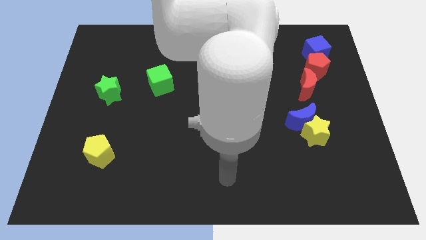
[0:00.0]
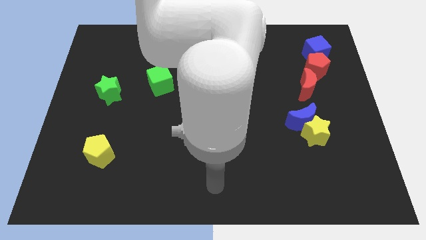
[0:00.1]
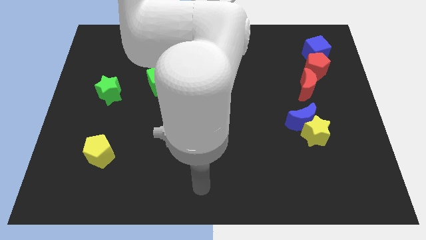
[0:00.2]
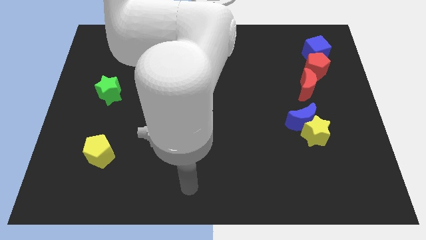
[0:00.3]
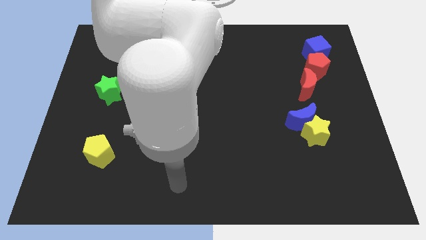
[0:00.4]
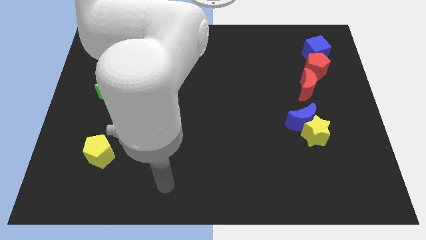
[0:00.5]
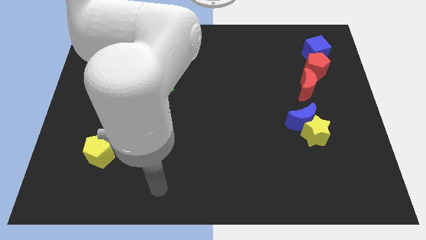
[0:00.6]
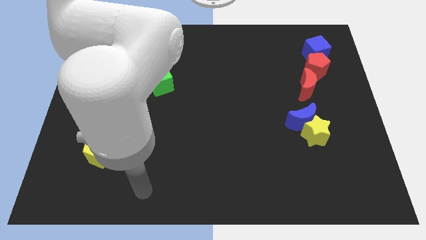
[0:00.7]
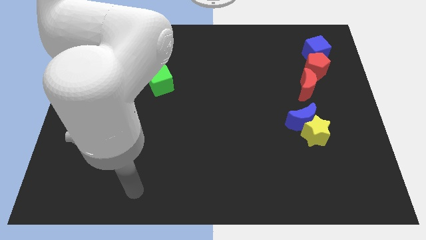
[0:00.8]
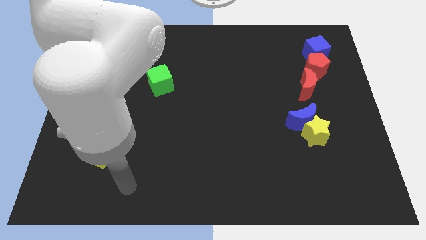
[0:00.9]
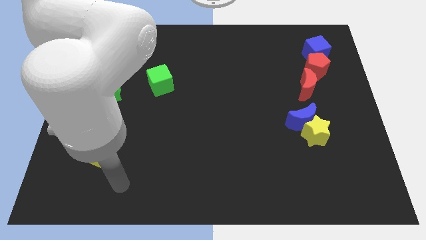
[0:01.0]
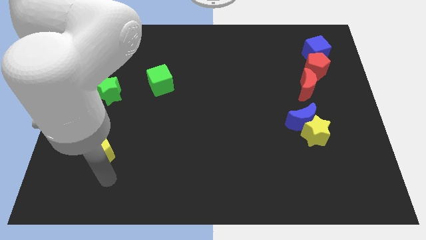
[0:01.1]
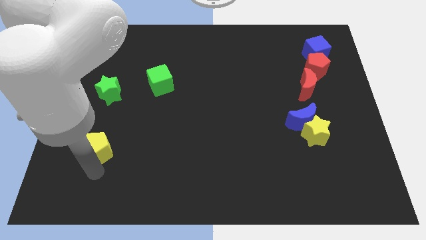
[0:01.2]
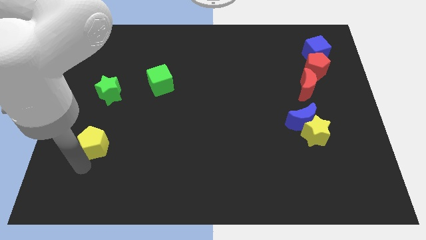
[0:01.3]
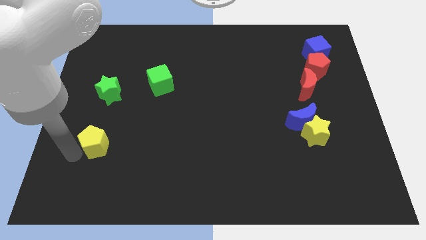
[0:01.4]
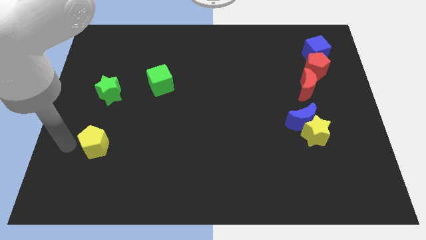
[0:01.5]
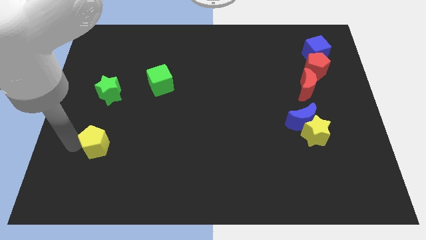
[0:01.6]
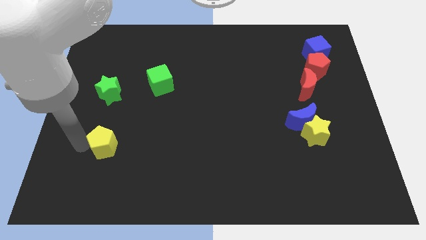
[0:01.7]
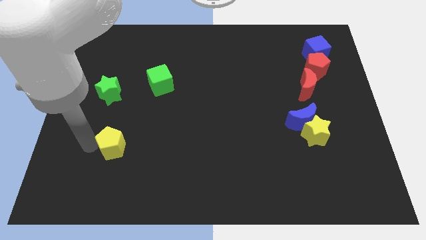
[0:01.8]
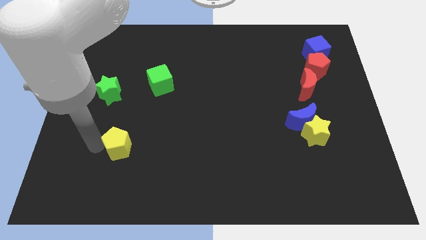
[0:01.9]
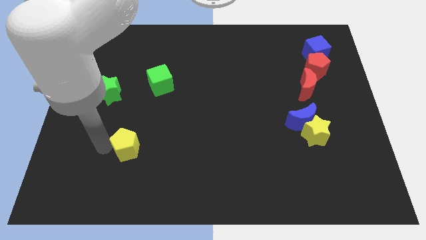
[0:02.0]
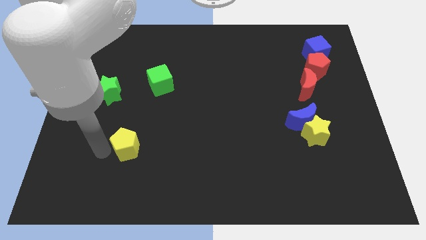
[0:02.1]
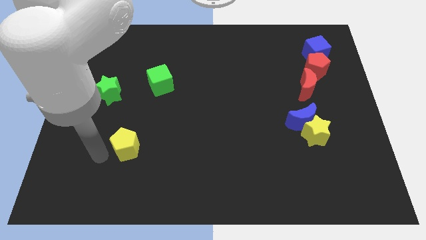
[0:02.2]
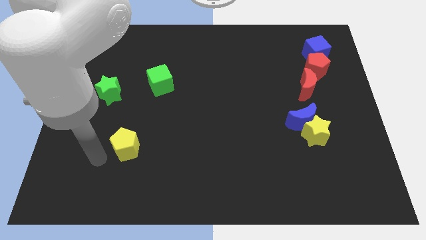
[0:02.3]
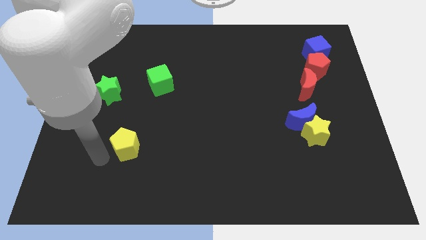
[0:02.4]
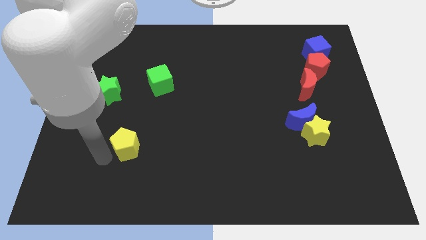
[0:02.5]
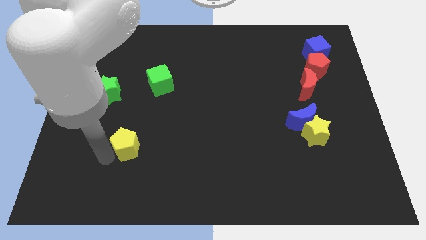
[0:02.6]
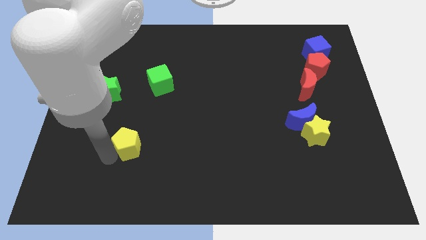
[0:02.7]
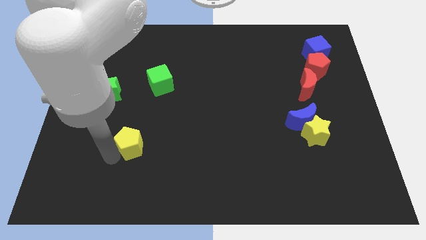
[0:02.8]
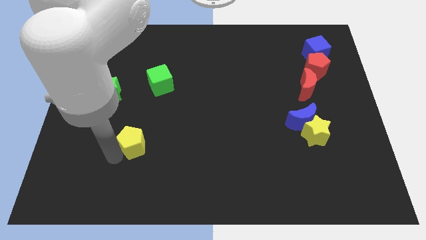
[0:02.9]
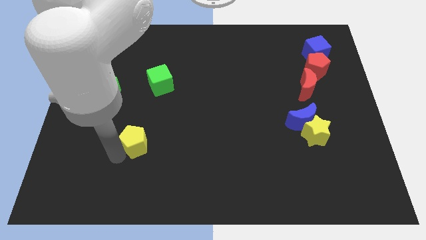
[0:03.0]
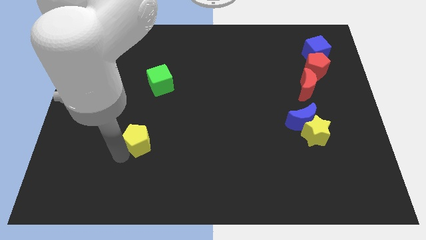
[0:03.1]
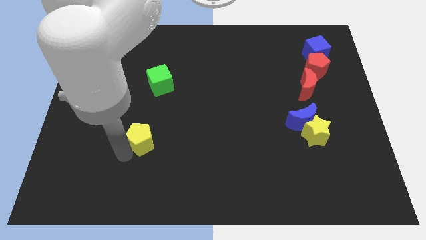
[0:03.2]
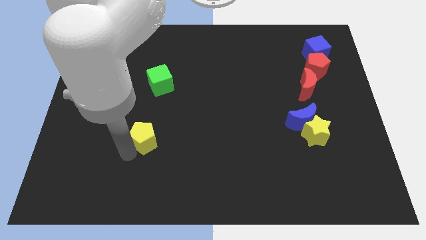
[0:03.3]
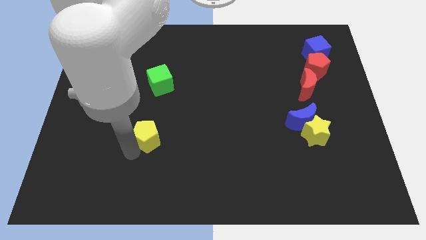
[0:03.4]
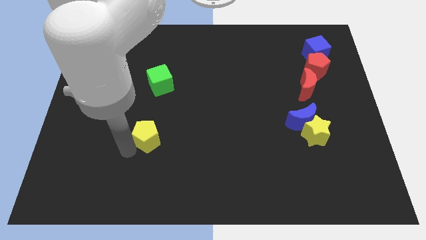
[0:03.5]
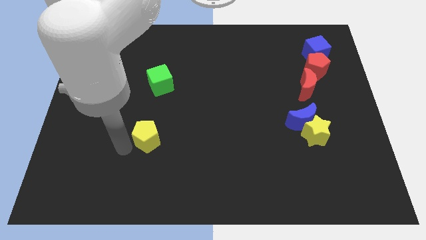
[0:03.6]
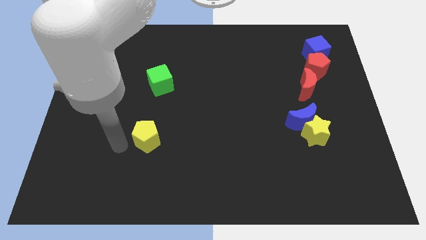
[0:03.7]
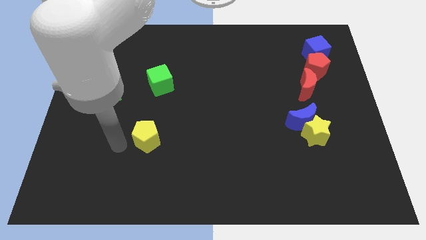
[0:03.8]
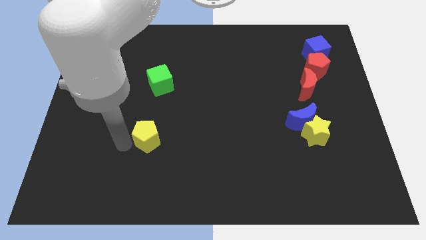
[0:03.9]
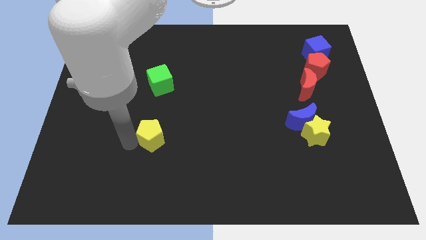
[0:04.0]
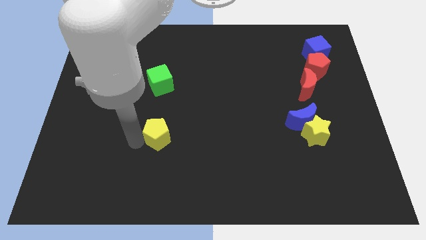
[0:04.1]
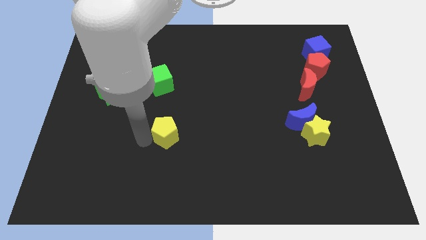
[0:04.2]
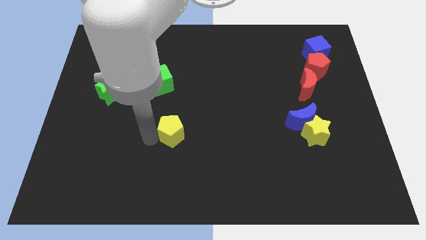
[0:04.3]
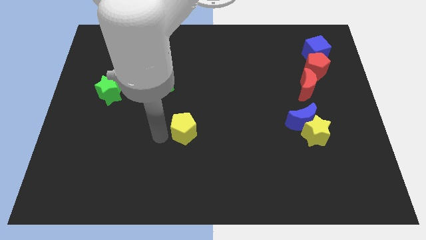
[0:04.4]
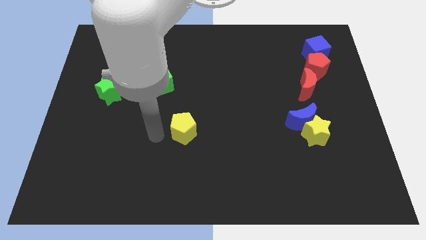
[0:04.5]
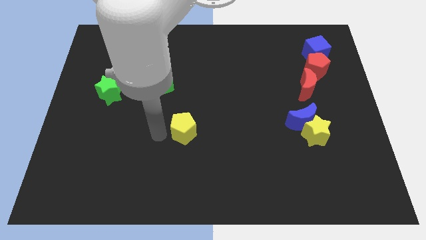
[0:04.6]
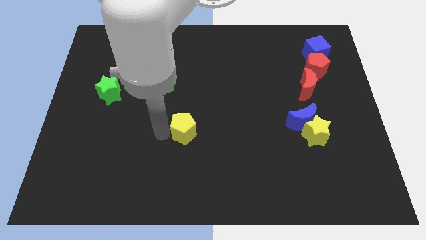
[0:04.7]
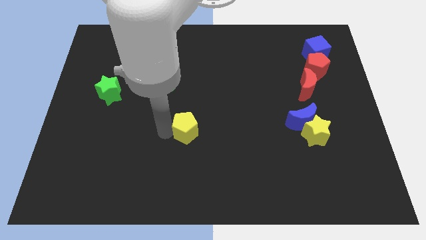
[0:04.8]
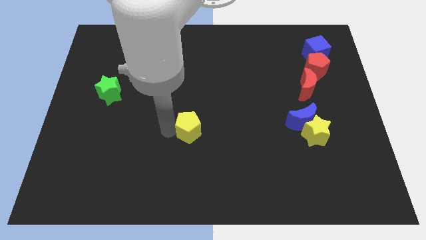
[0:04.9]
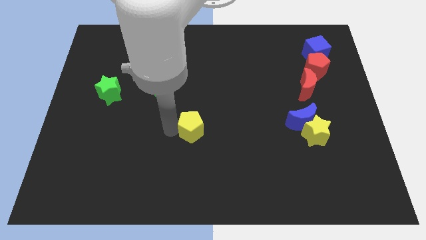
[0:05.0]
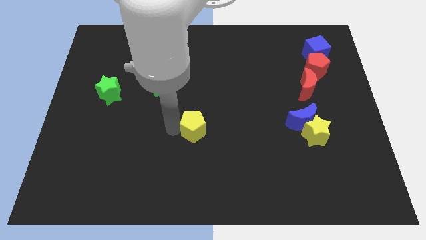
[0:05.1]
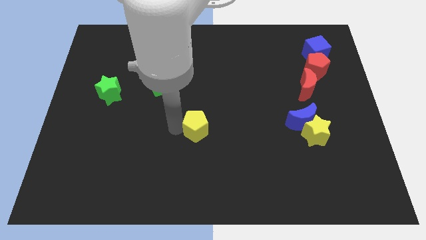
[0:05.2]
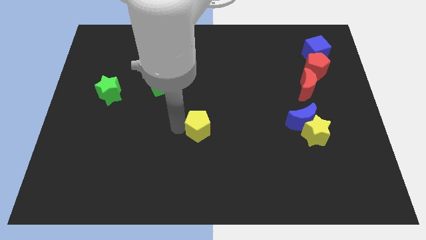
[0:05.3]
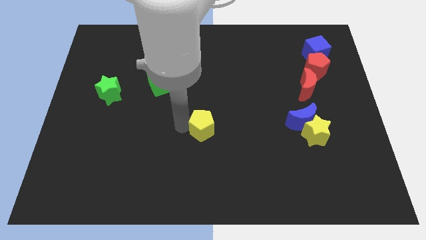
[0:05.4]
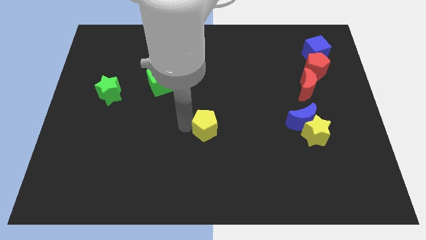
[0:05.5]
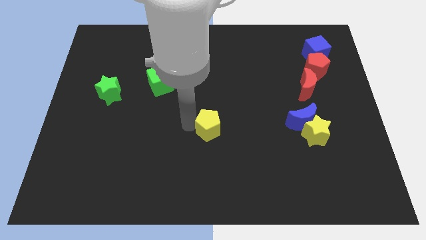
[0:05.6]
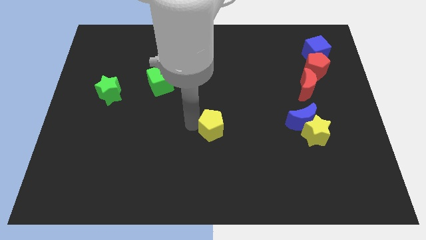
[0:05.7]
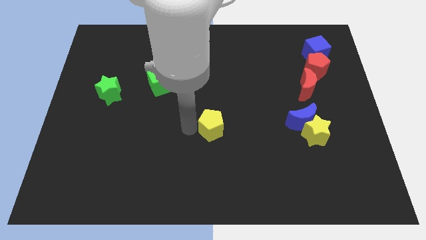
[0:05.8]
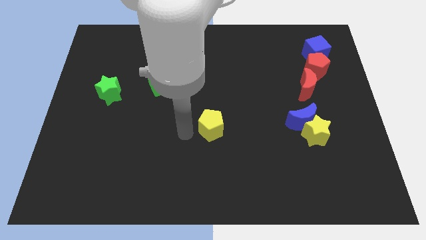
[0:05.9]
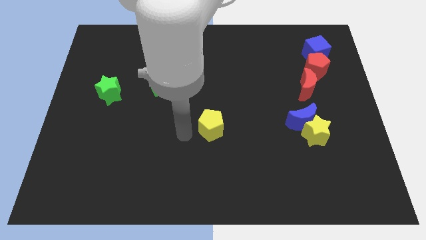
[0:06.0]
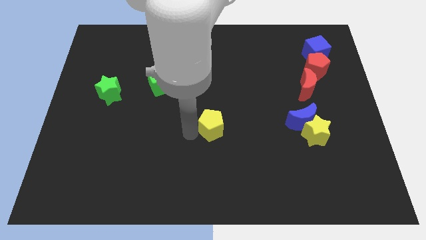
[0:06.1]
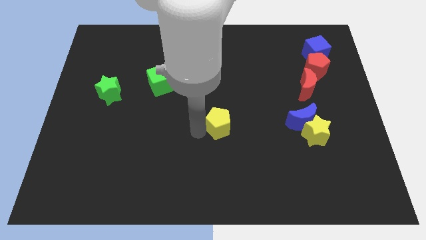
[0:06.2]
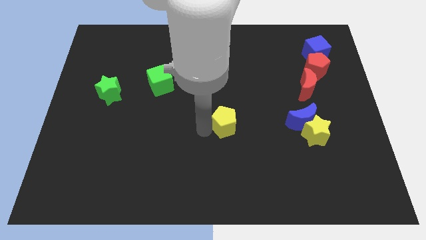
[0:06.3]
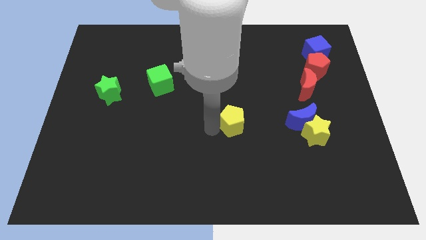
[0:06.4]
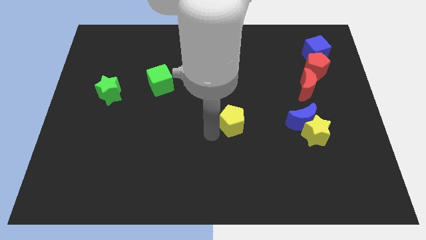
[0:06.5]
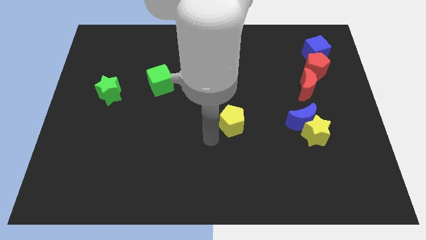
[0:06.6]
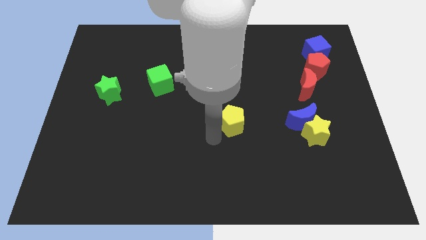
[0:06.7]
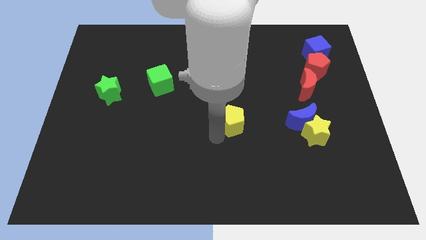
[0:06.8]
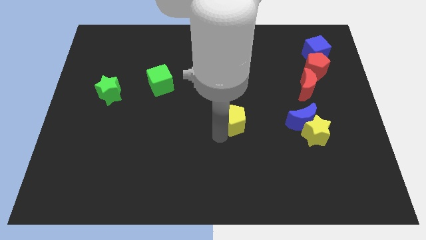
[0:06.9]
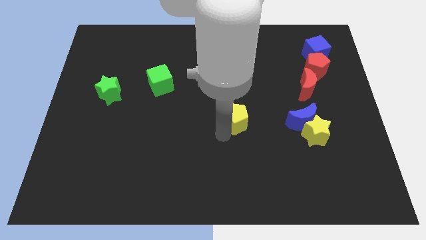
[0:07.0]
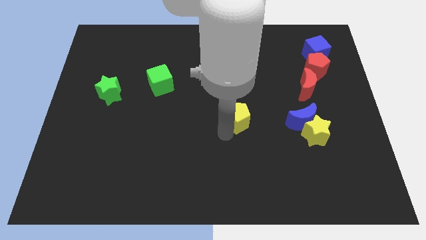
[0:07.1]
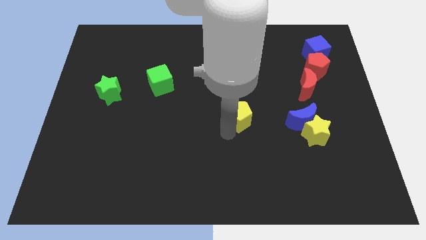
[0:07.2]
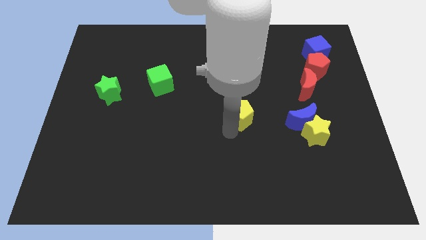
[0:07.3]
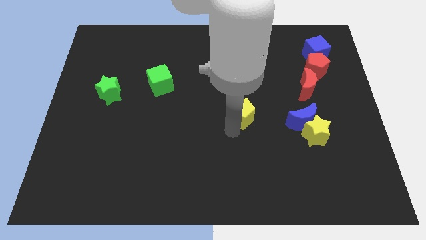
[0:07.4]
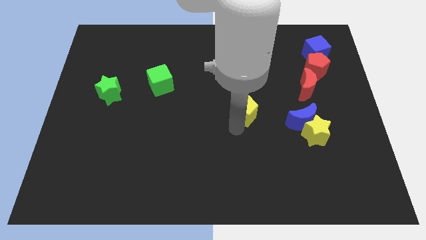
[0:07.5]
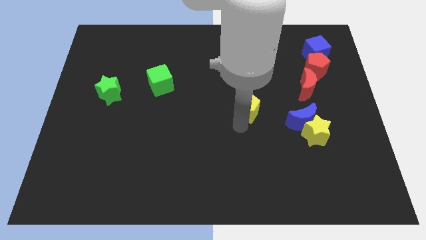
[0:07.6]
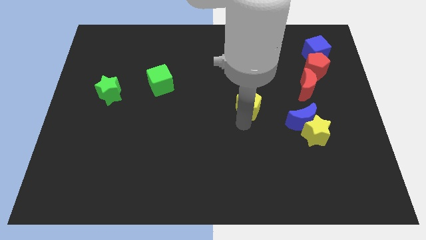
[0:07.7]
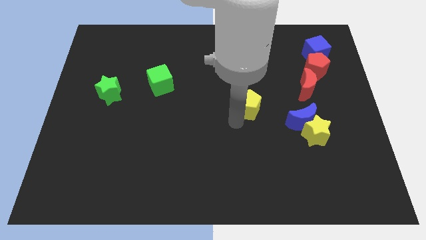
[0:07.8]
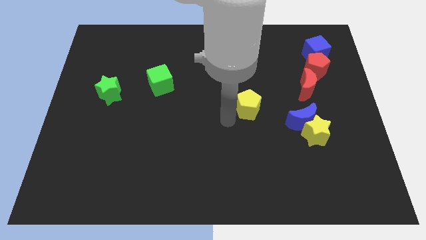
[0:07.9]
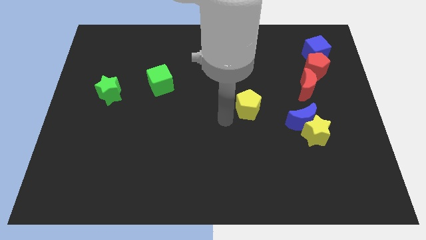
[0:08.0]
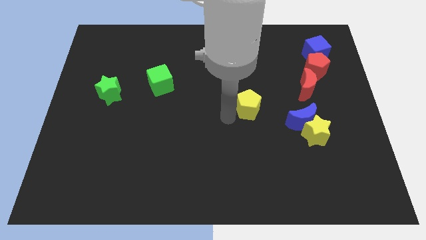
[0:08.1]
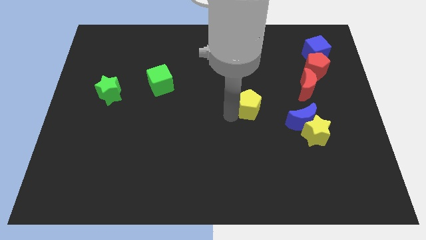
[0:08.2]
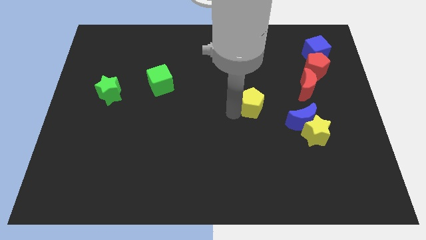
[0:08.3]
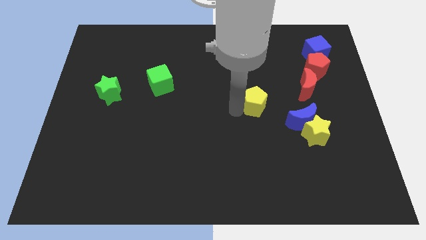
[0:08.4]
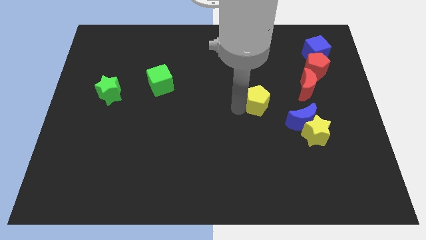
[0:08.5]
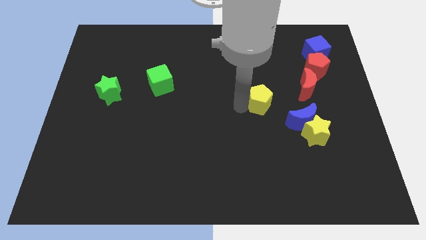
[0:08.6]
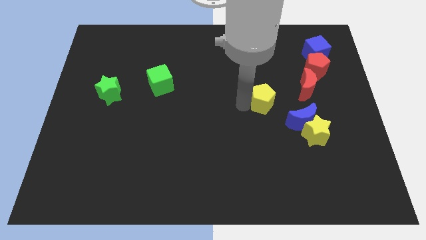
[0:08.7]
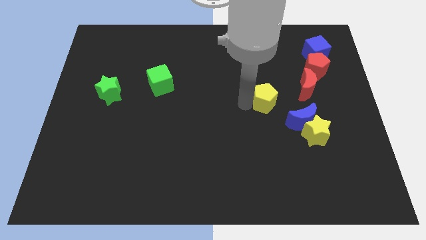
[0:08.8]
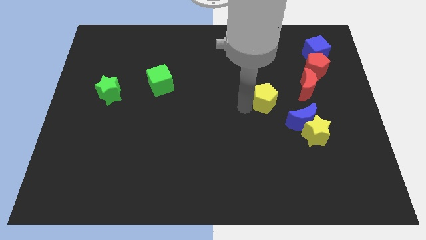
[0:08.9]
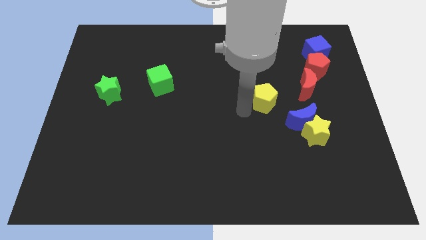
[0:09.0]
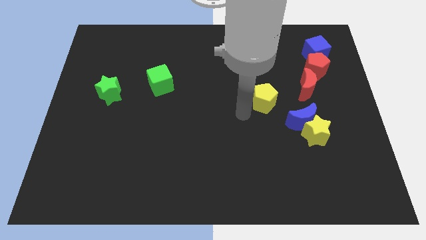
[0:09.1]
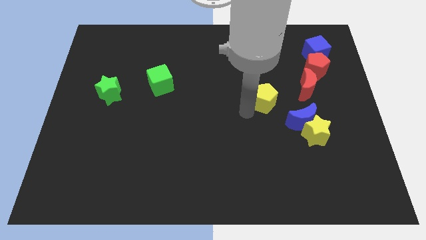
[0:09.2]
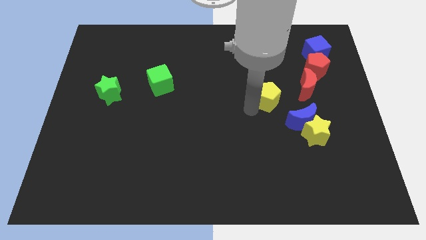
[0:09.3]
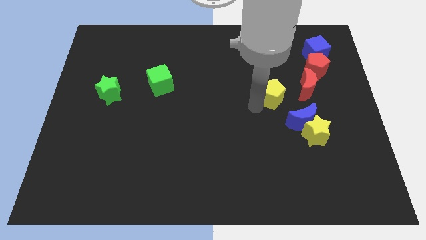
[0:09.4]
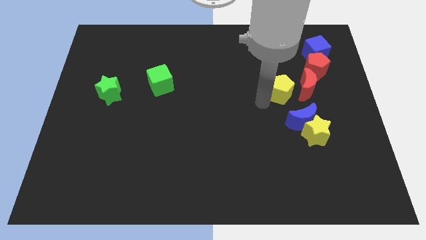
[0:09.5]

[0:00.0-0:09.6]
push the yellow pentagon to the bottom left of the red pentagon
